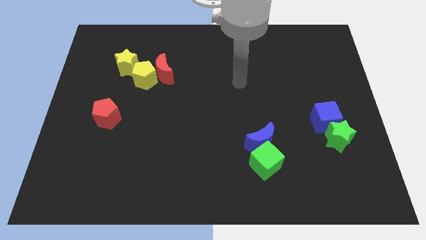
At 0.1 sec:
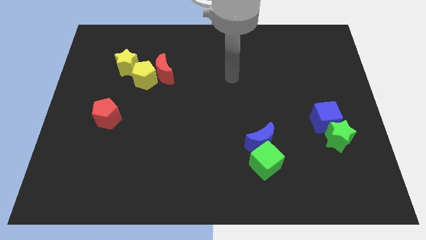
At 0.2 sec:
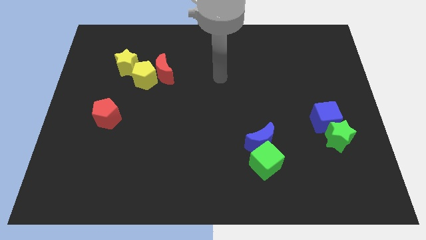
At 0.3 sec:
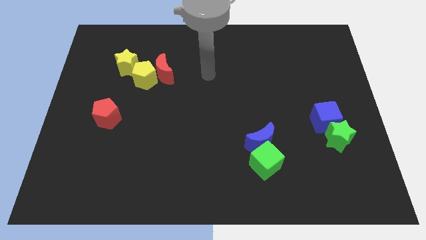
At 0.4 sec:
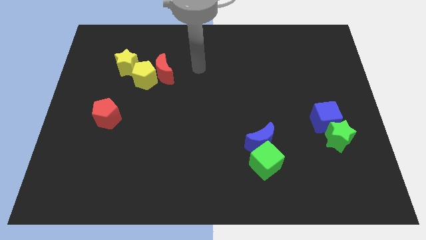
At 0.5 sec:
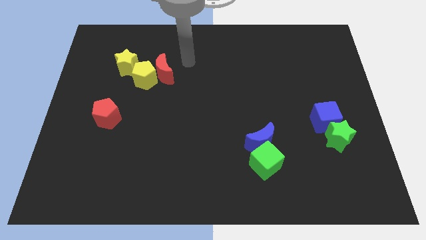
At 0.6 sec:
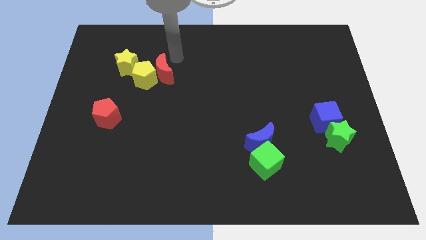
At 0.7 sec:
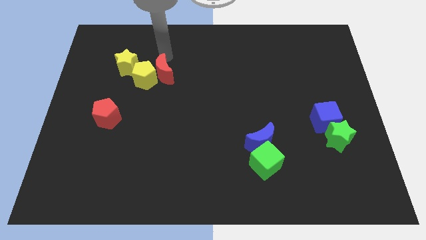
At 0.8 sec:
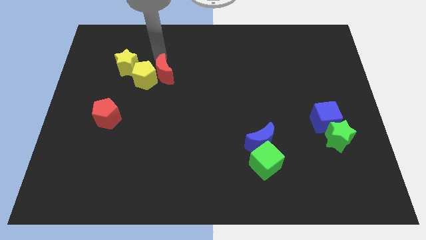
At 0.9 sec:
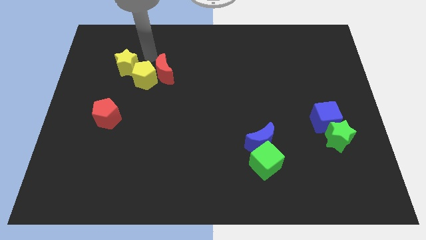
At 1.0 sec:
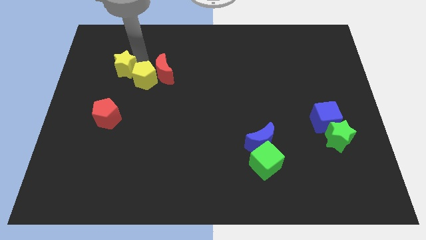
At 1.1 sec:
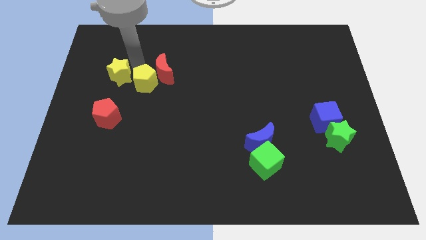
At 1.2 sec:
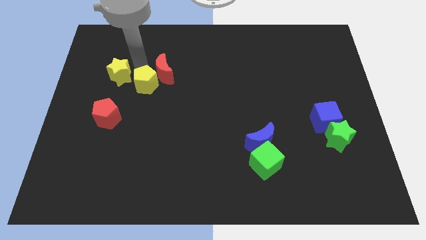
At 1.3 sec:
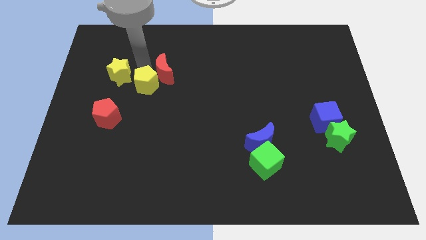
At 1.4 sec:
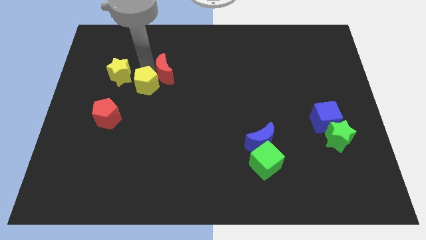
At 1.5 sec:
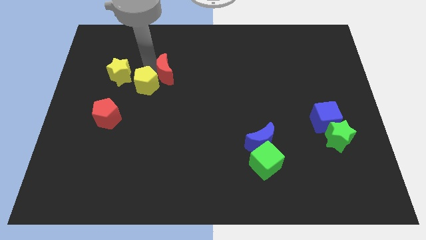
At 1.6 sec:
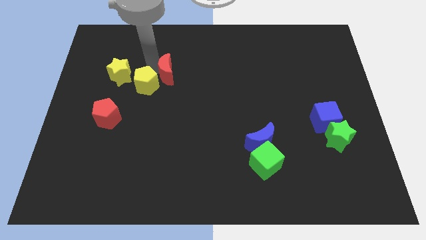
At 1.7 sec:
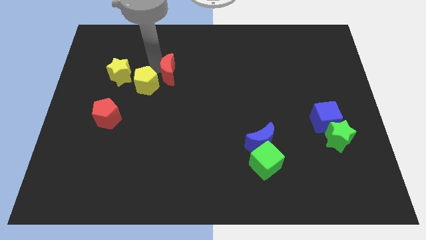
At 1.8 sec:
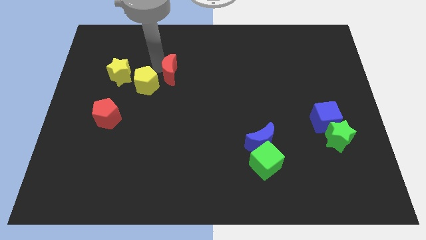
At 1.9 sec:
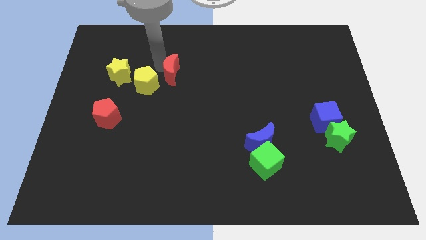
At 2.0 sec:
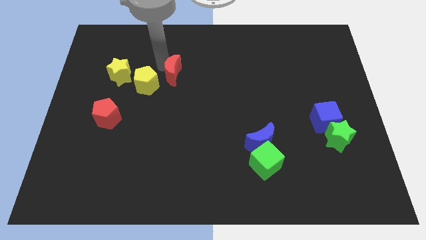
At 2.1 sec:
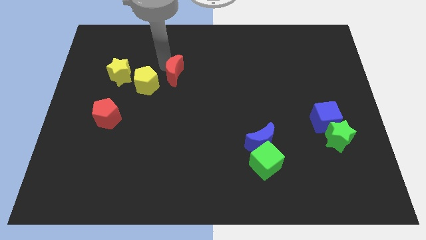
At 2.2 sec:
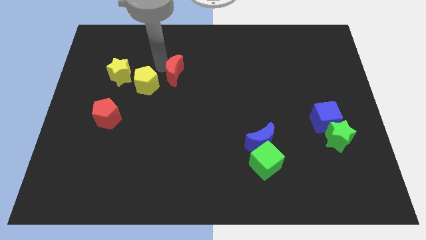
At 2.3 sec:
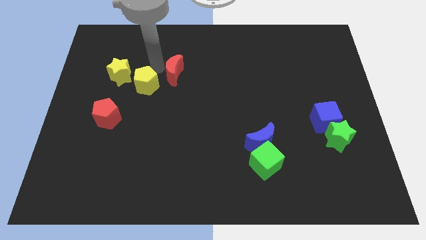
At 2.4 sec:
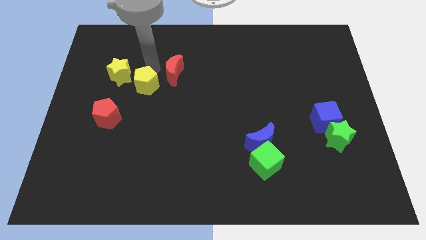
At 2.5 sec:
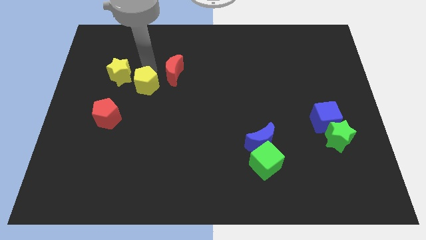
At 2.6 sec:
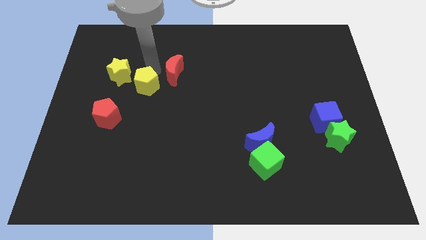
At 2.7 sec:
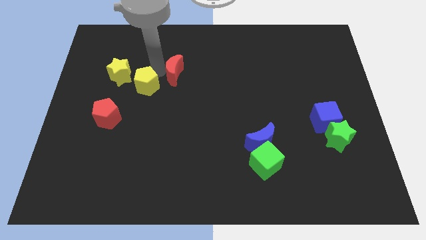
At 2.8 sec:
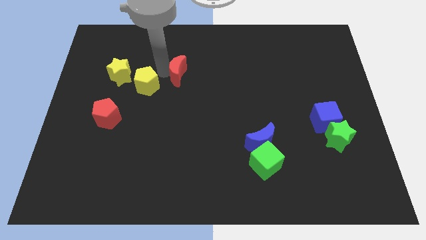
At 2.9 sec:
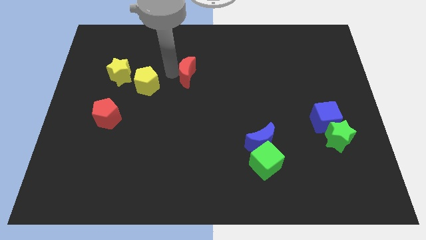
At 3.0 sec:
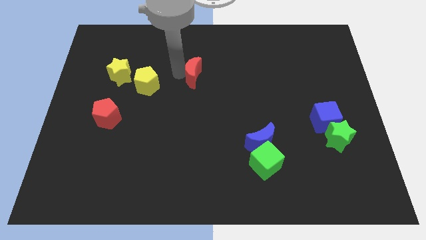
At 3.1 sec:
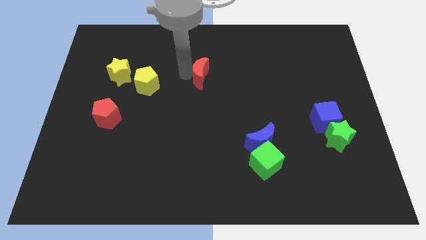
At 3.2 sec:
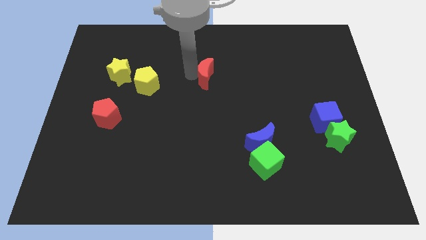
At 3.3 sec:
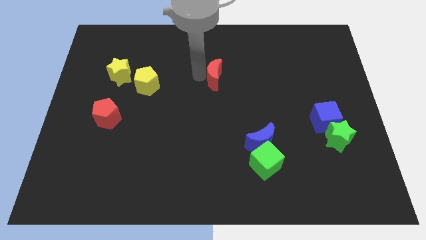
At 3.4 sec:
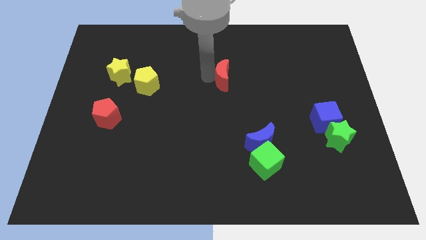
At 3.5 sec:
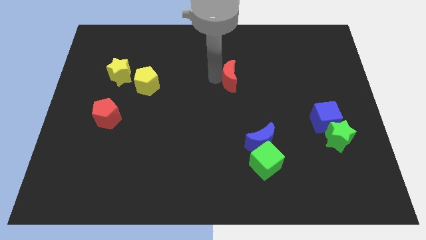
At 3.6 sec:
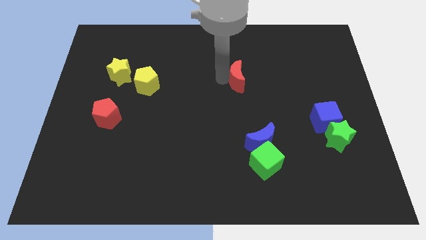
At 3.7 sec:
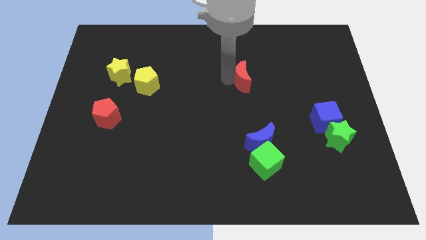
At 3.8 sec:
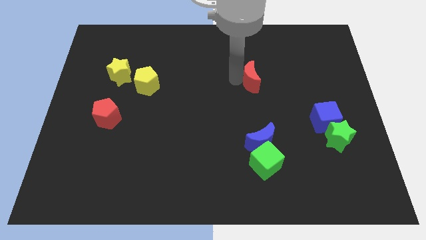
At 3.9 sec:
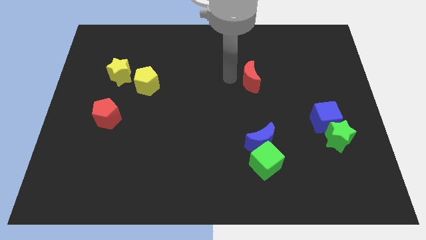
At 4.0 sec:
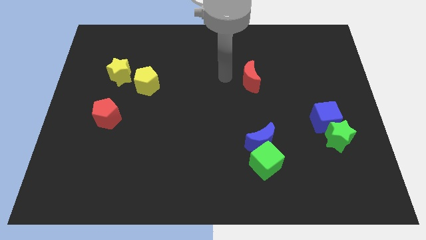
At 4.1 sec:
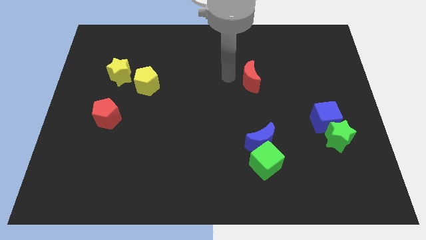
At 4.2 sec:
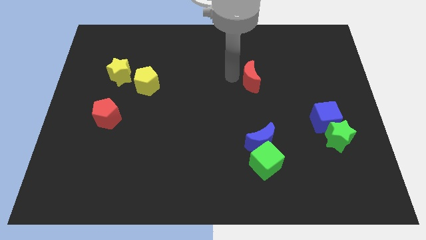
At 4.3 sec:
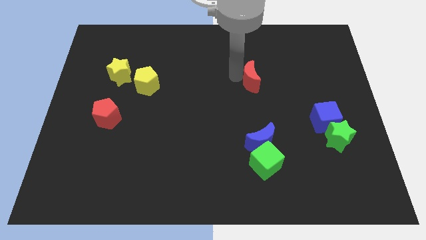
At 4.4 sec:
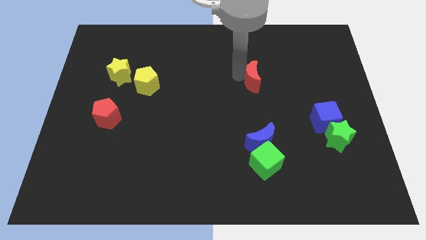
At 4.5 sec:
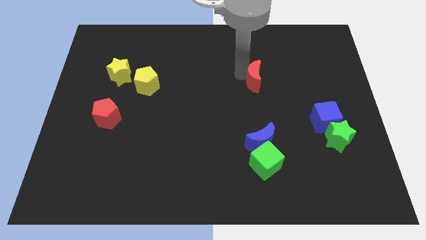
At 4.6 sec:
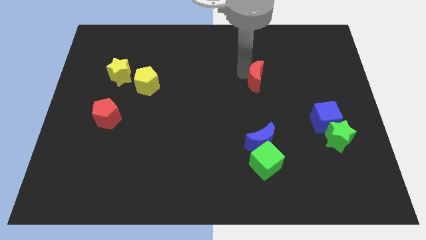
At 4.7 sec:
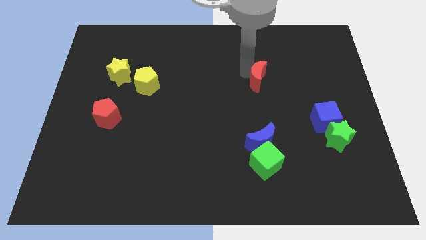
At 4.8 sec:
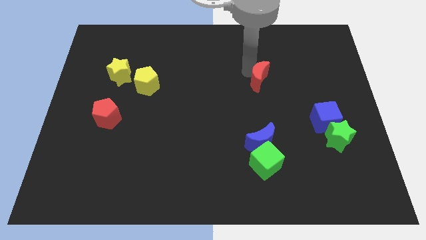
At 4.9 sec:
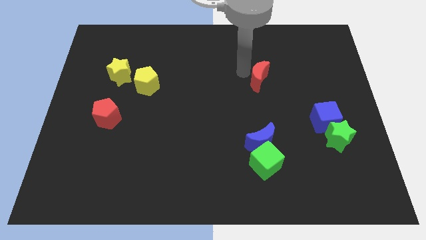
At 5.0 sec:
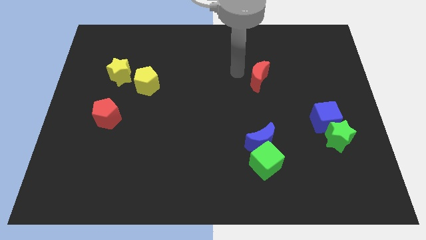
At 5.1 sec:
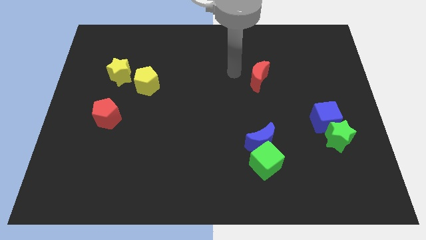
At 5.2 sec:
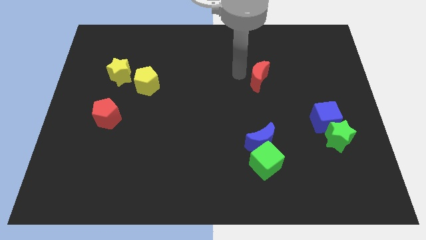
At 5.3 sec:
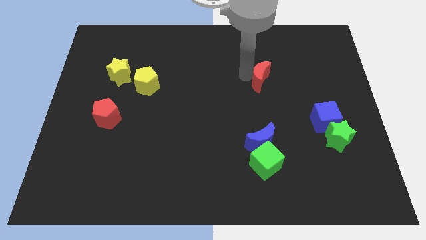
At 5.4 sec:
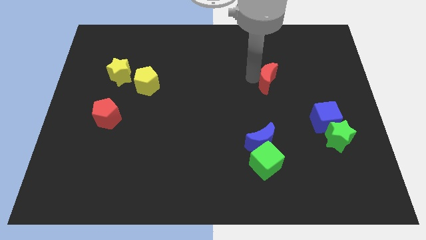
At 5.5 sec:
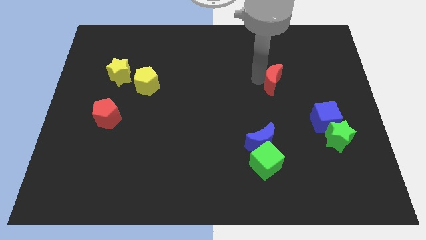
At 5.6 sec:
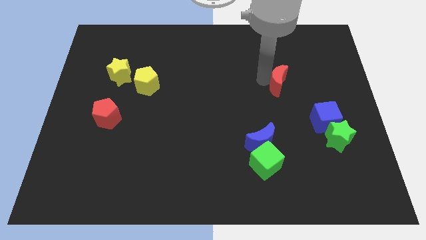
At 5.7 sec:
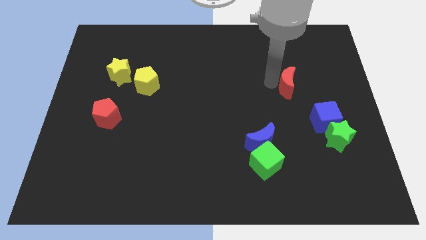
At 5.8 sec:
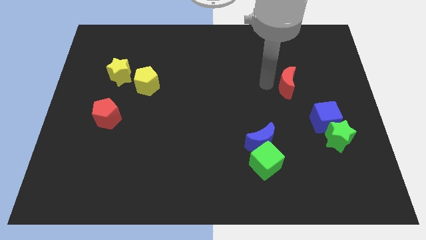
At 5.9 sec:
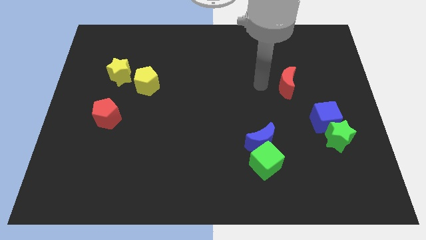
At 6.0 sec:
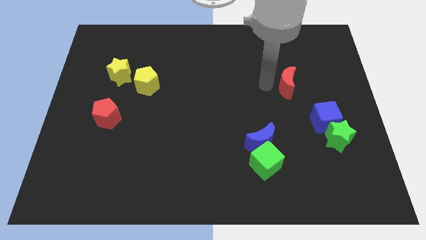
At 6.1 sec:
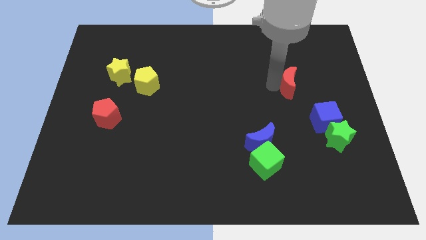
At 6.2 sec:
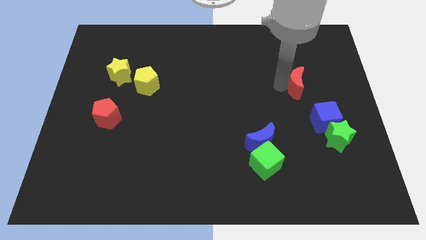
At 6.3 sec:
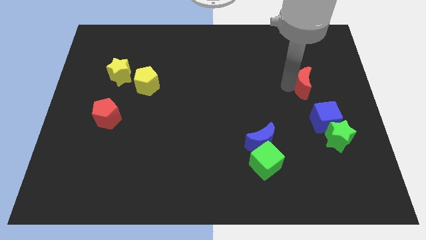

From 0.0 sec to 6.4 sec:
push the red moon to the top side of the blue cube

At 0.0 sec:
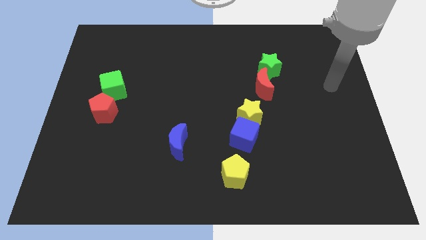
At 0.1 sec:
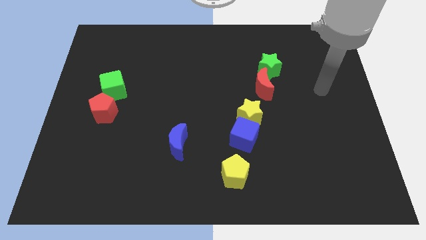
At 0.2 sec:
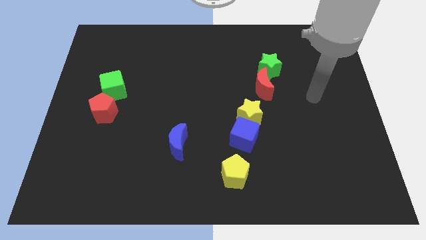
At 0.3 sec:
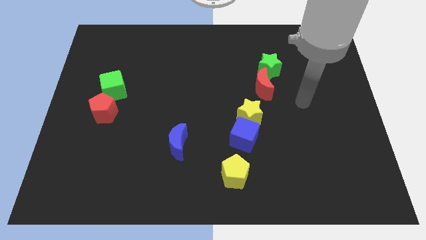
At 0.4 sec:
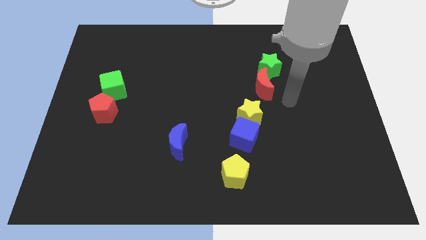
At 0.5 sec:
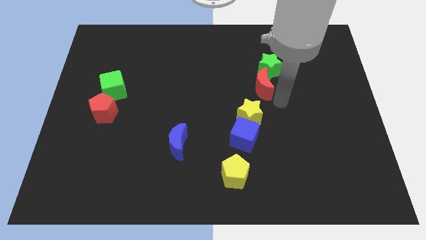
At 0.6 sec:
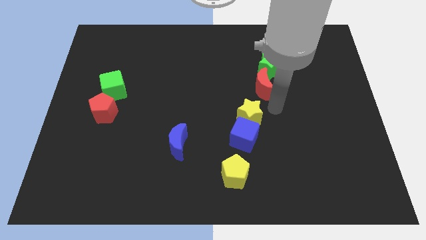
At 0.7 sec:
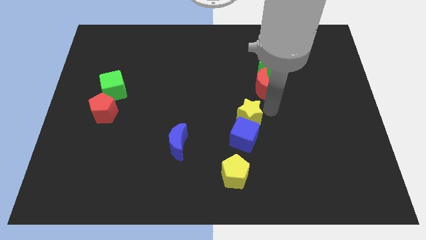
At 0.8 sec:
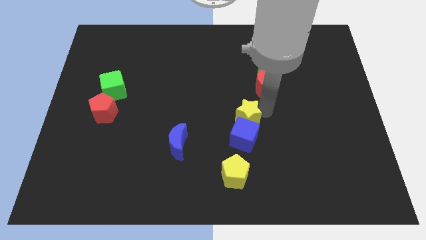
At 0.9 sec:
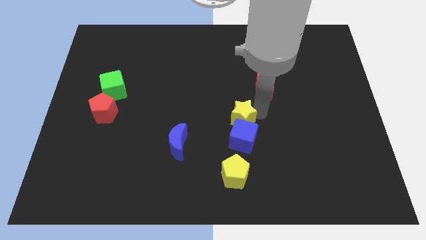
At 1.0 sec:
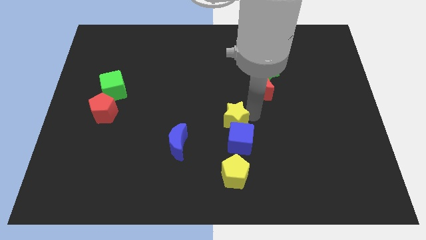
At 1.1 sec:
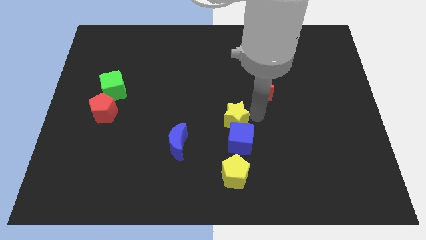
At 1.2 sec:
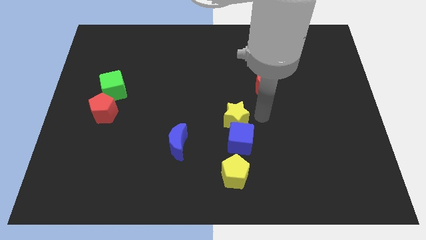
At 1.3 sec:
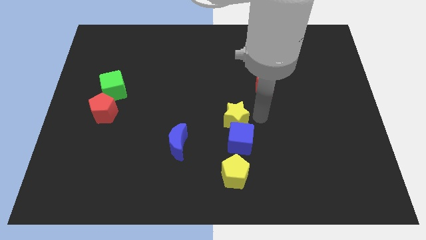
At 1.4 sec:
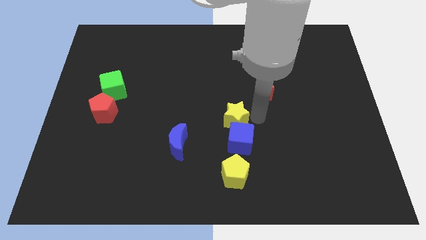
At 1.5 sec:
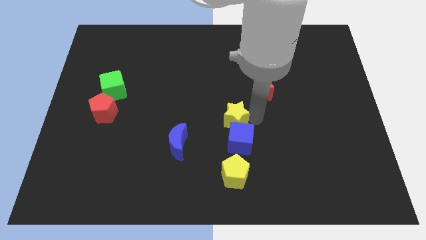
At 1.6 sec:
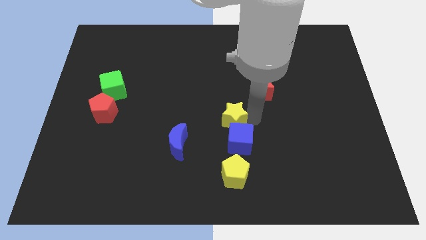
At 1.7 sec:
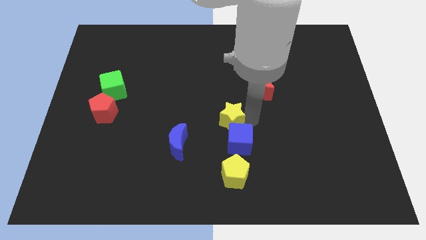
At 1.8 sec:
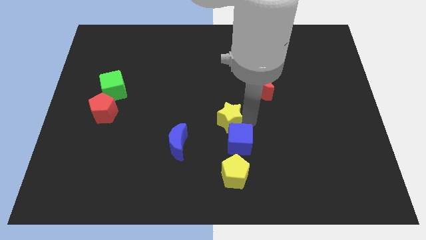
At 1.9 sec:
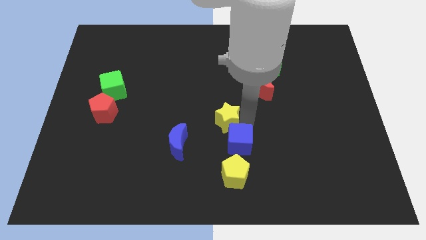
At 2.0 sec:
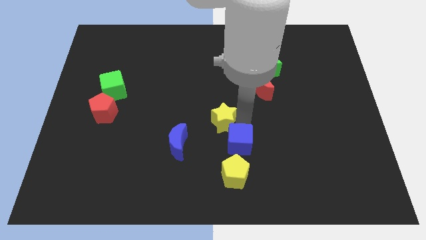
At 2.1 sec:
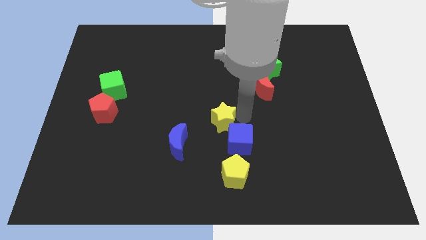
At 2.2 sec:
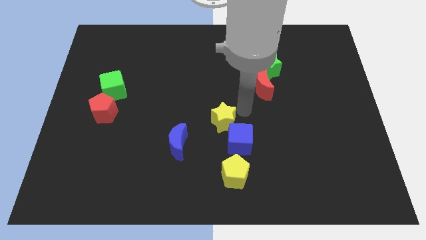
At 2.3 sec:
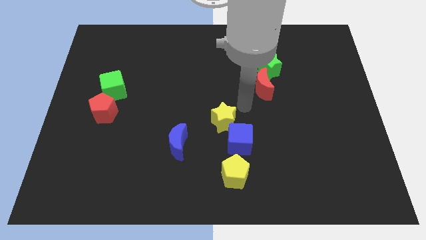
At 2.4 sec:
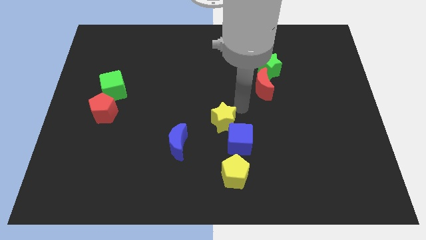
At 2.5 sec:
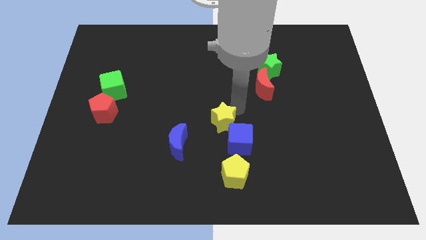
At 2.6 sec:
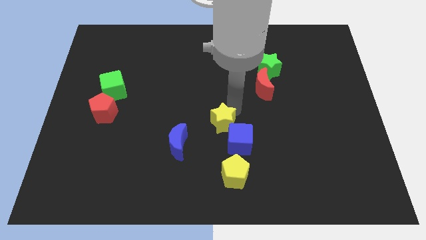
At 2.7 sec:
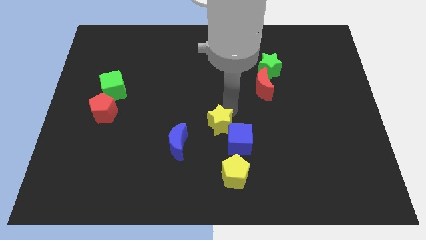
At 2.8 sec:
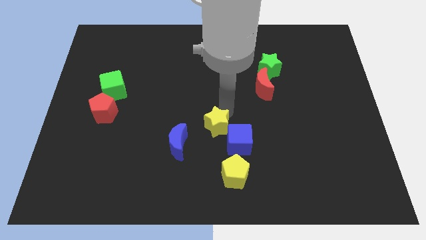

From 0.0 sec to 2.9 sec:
slide the yellow star just left of the blue cube
